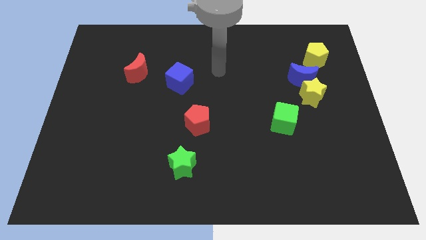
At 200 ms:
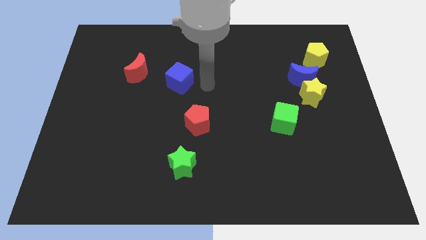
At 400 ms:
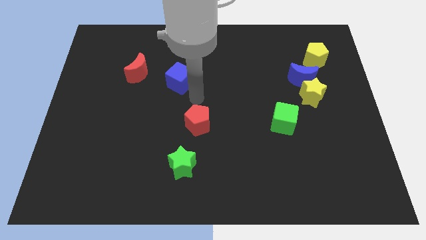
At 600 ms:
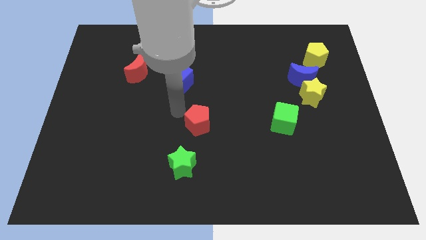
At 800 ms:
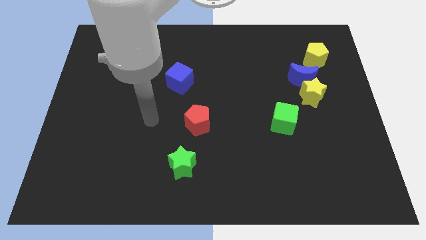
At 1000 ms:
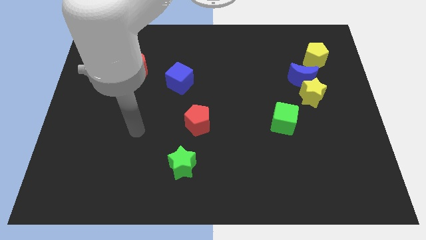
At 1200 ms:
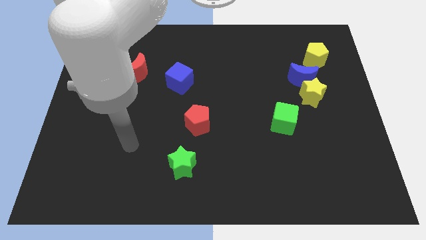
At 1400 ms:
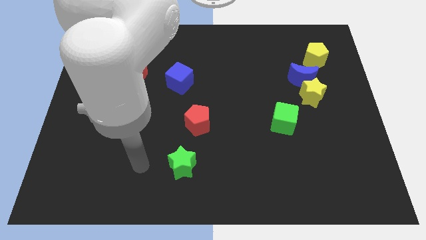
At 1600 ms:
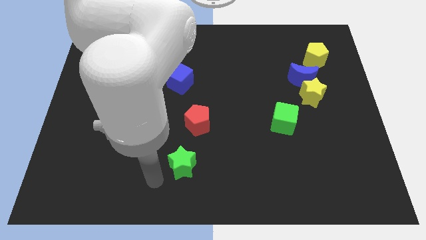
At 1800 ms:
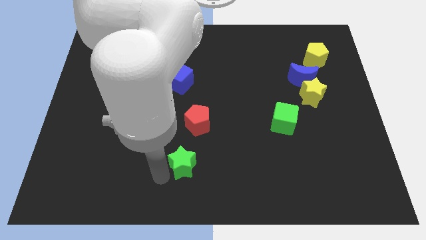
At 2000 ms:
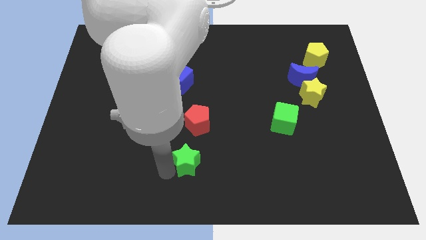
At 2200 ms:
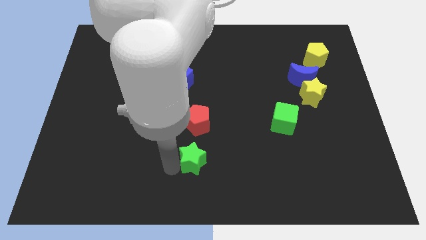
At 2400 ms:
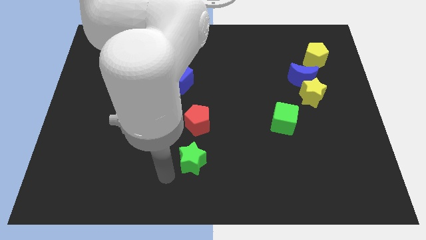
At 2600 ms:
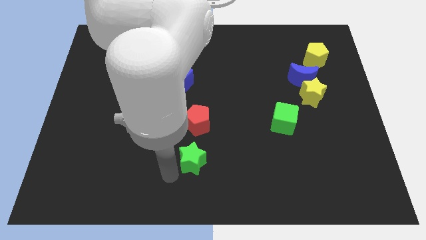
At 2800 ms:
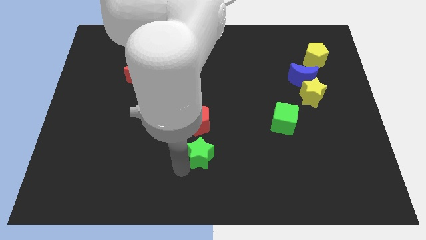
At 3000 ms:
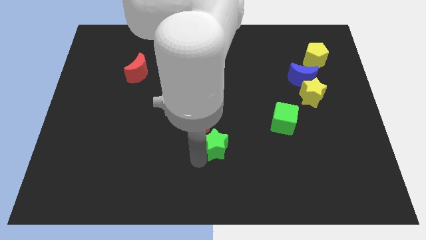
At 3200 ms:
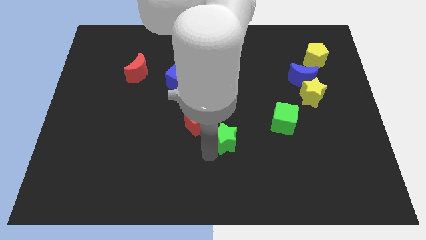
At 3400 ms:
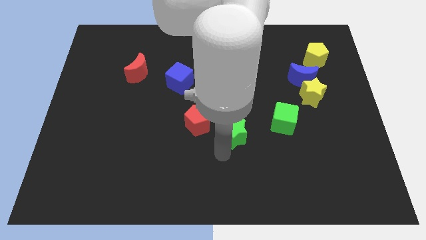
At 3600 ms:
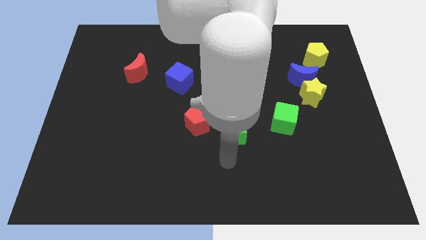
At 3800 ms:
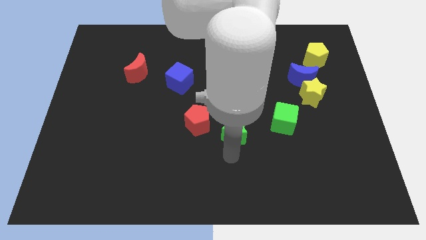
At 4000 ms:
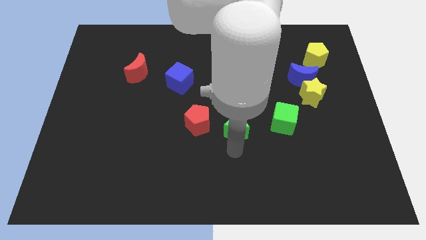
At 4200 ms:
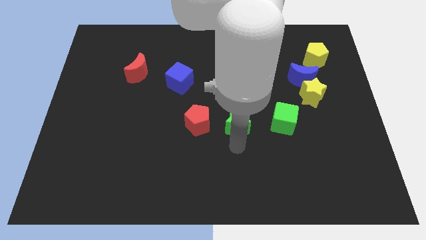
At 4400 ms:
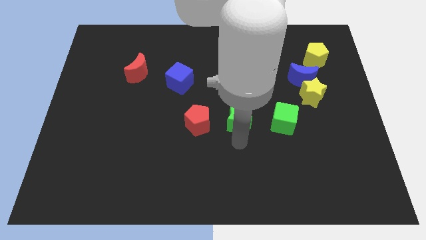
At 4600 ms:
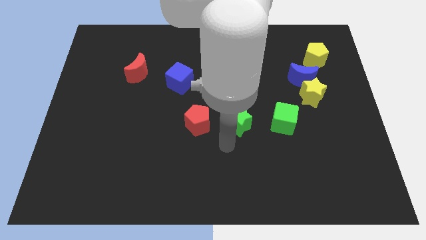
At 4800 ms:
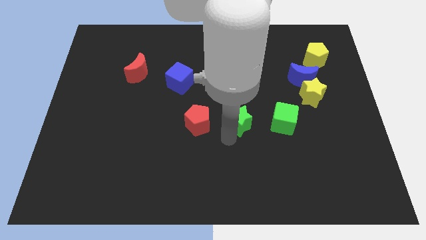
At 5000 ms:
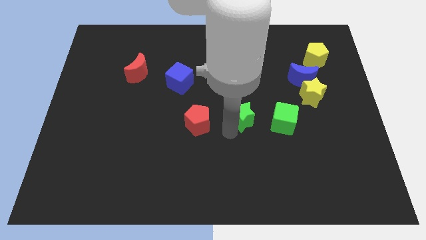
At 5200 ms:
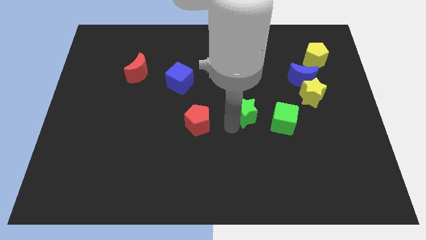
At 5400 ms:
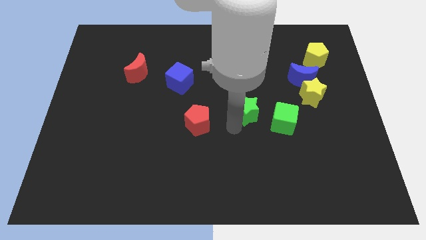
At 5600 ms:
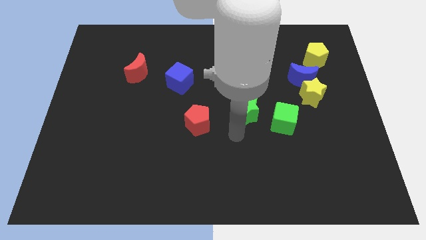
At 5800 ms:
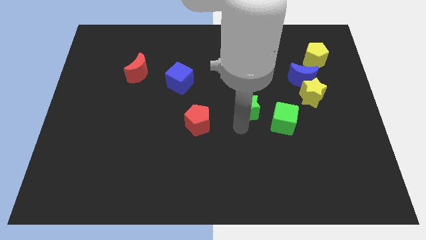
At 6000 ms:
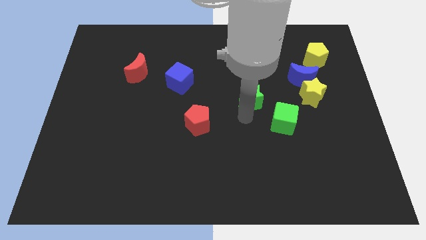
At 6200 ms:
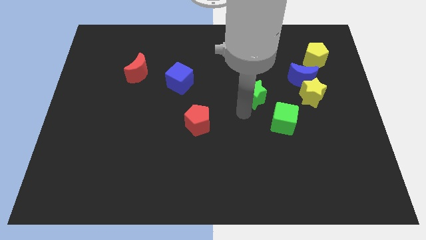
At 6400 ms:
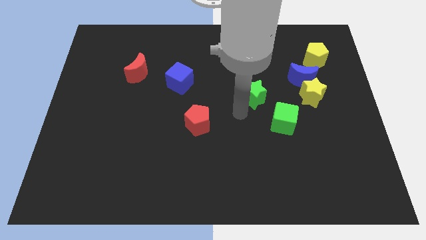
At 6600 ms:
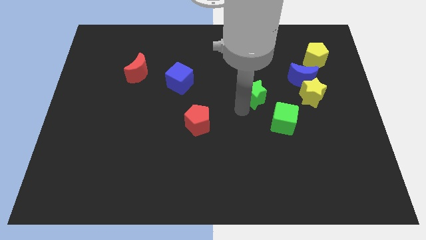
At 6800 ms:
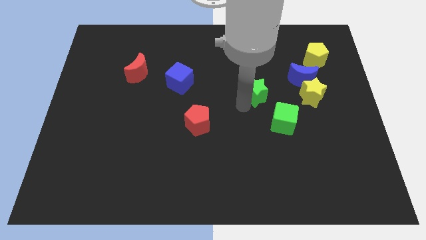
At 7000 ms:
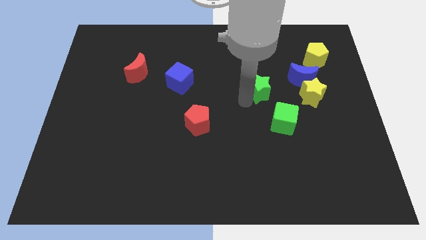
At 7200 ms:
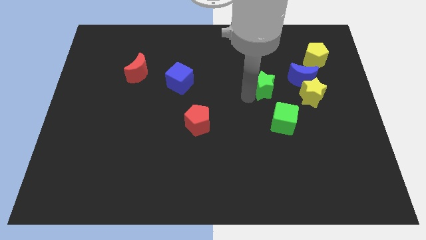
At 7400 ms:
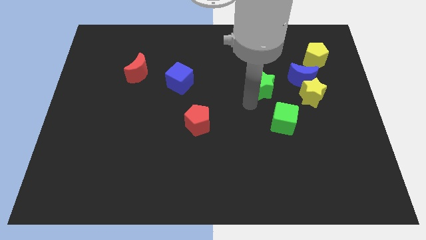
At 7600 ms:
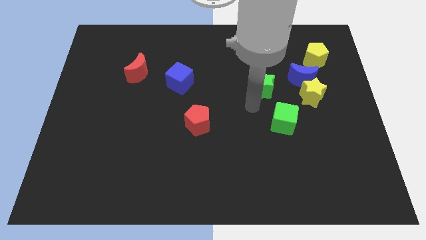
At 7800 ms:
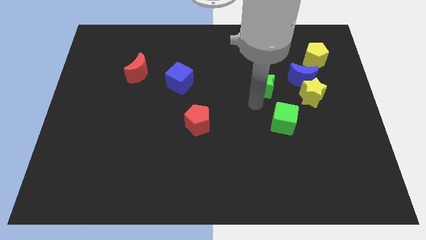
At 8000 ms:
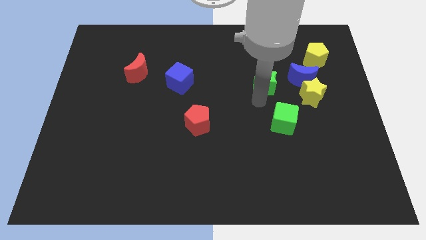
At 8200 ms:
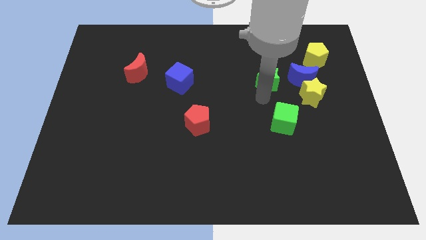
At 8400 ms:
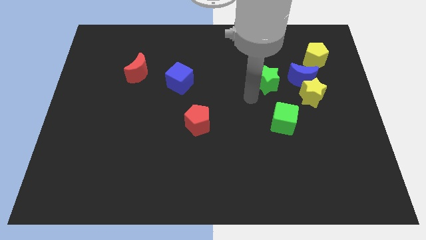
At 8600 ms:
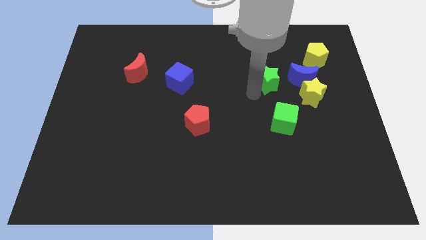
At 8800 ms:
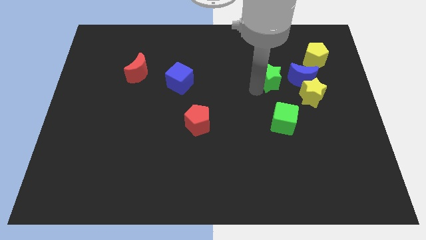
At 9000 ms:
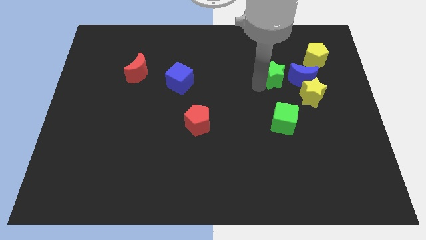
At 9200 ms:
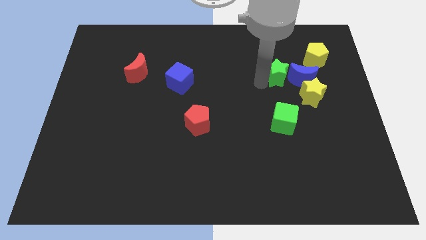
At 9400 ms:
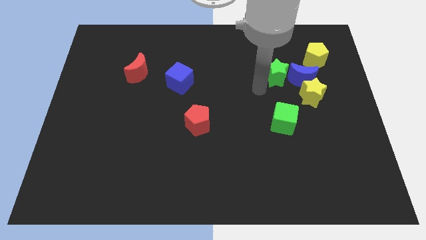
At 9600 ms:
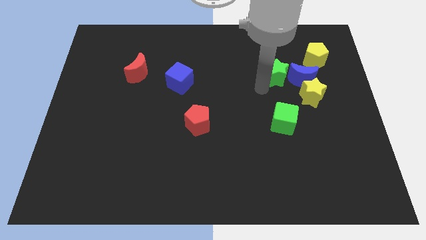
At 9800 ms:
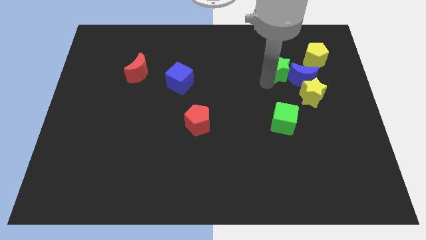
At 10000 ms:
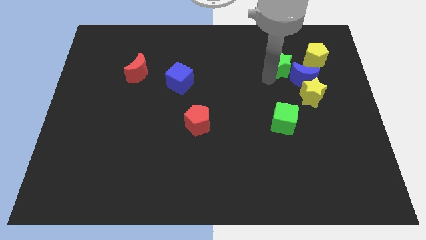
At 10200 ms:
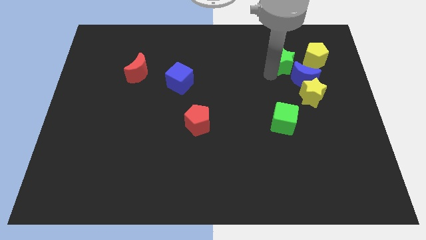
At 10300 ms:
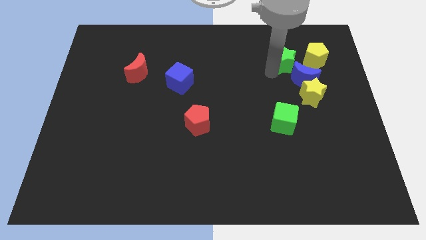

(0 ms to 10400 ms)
push the green star above the yellow star

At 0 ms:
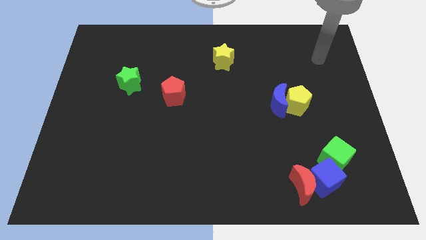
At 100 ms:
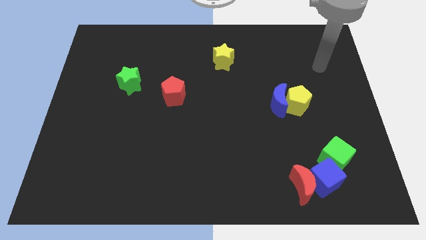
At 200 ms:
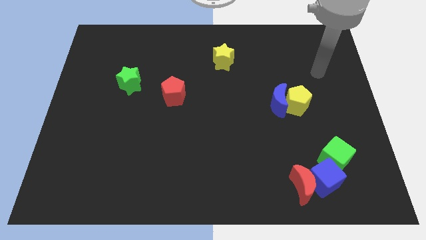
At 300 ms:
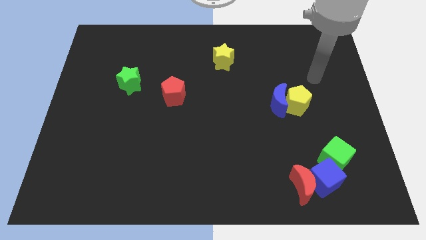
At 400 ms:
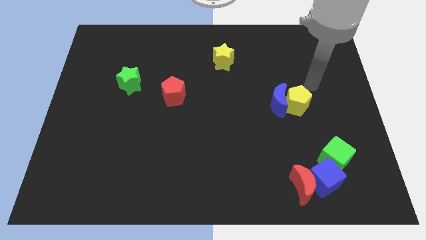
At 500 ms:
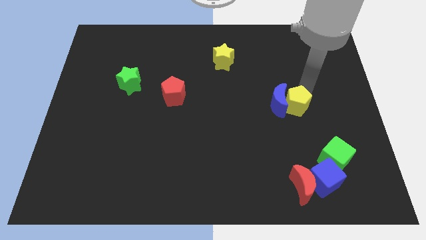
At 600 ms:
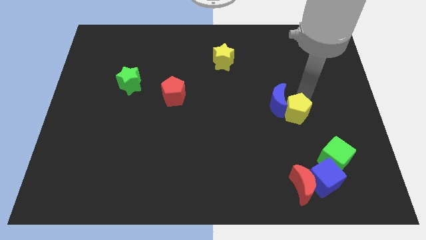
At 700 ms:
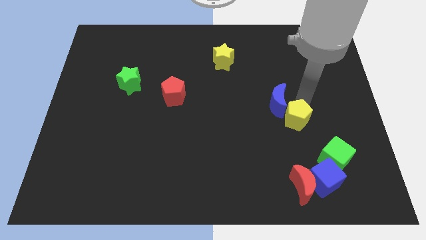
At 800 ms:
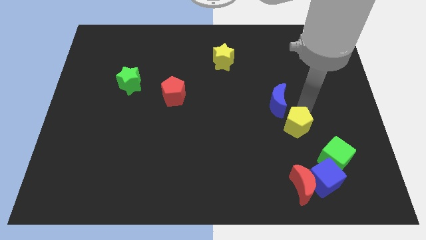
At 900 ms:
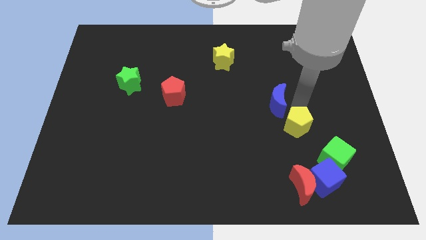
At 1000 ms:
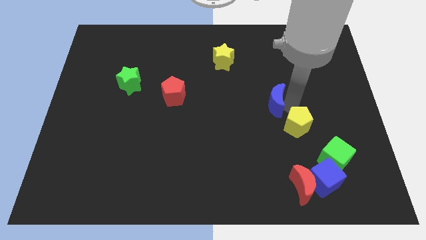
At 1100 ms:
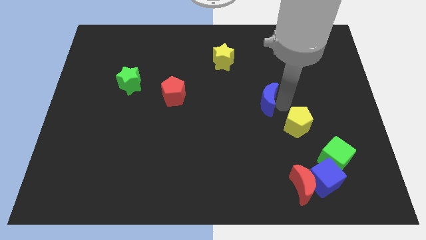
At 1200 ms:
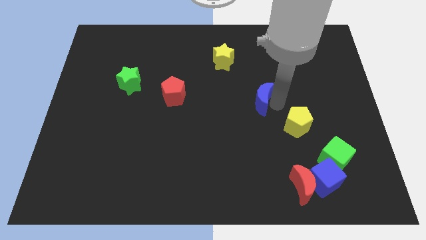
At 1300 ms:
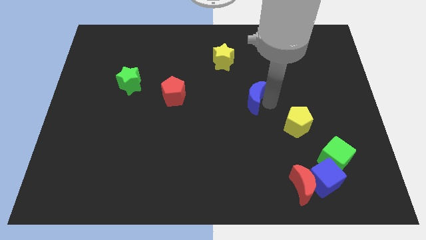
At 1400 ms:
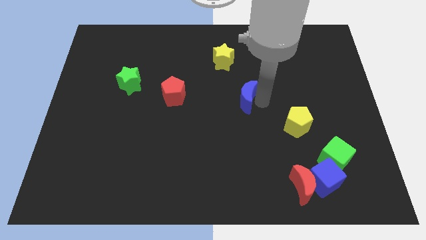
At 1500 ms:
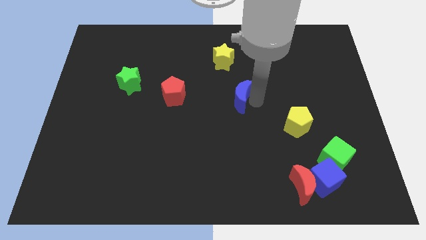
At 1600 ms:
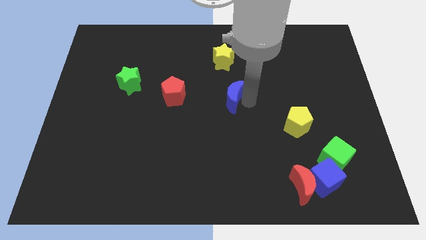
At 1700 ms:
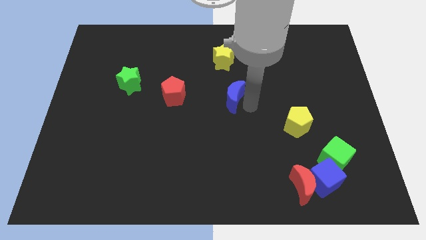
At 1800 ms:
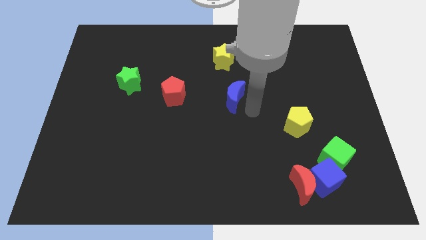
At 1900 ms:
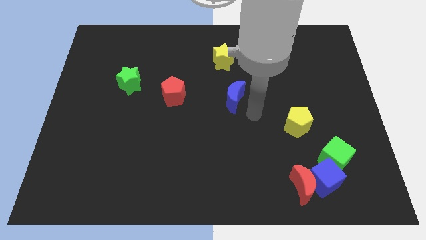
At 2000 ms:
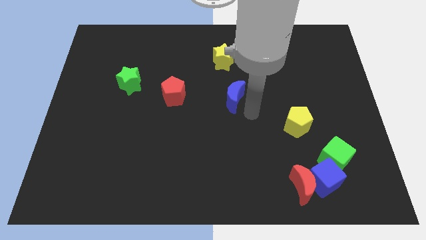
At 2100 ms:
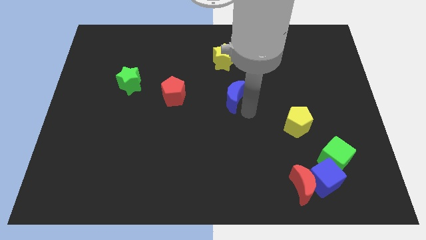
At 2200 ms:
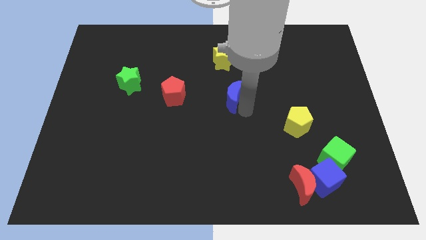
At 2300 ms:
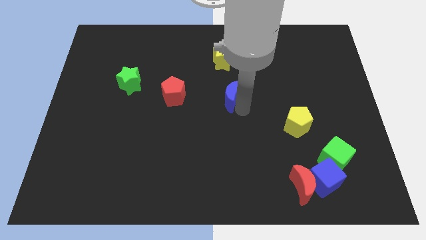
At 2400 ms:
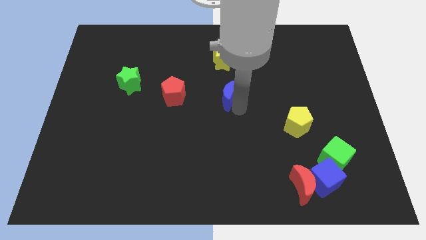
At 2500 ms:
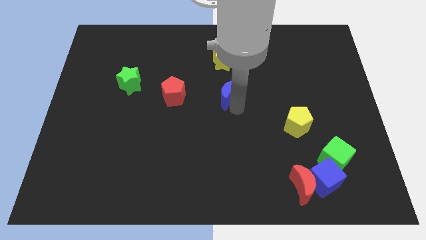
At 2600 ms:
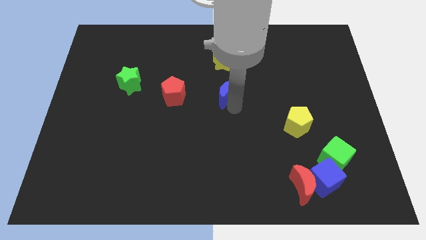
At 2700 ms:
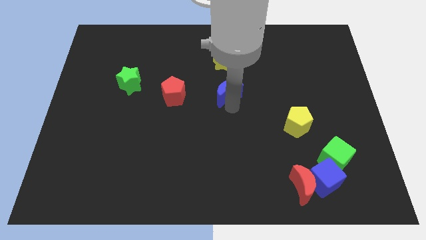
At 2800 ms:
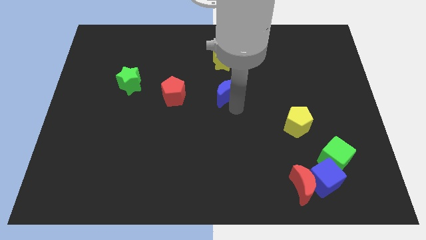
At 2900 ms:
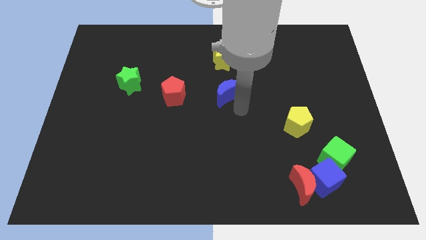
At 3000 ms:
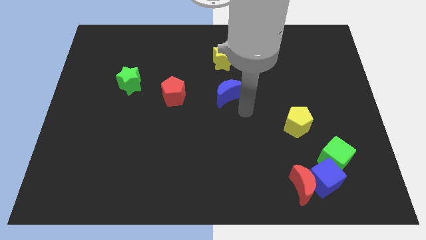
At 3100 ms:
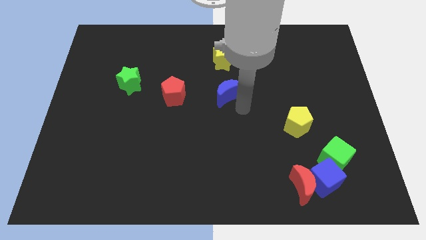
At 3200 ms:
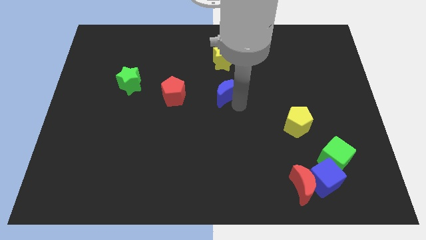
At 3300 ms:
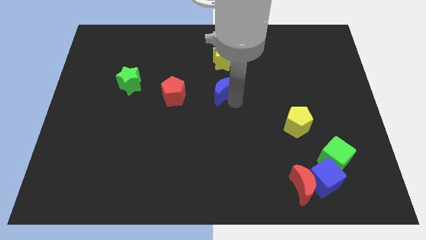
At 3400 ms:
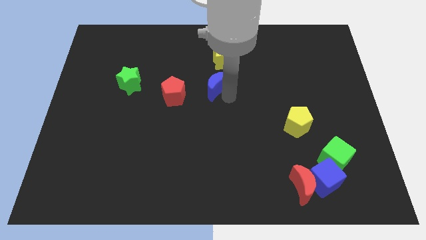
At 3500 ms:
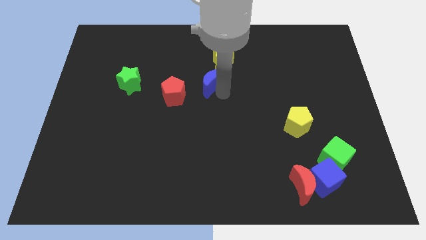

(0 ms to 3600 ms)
move the blue moon diagonally down and to the left of the yellow star
